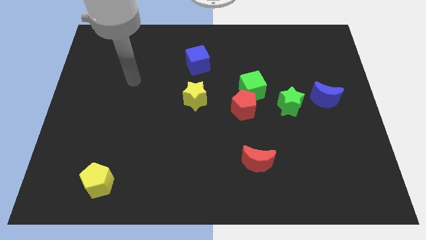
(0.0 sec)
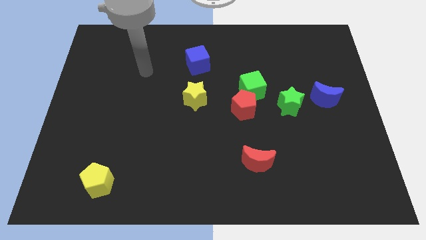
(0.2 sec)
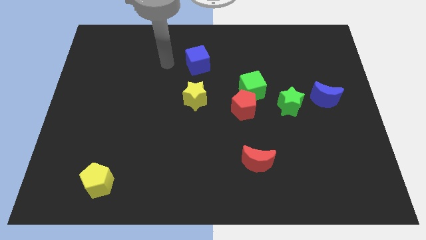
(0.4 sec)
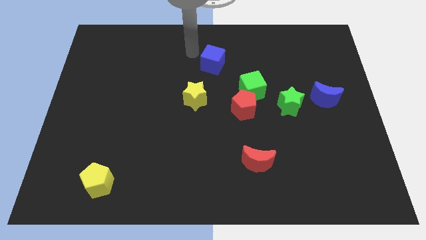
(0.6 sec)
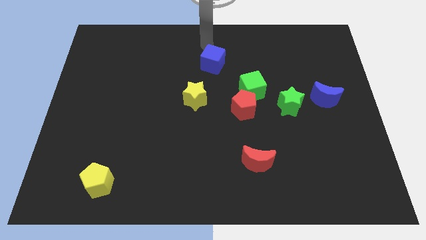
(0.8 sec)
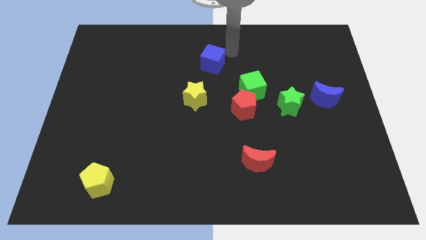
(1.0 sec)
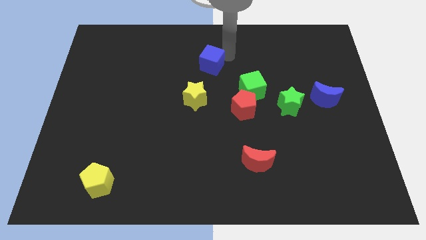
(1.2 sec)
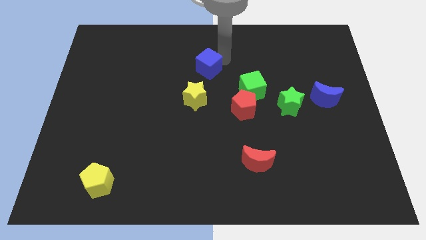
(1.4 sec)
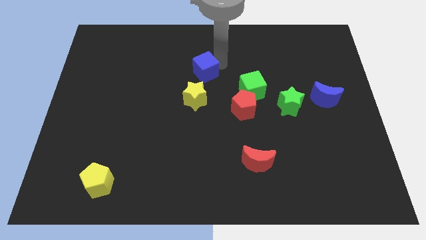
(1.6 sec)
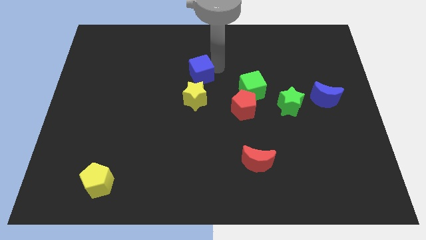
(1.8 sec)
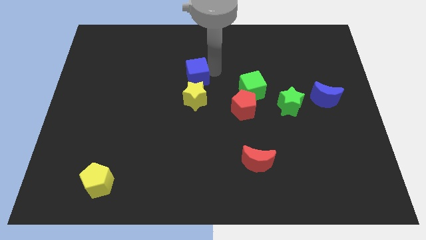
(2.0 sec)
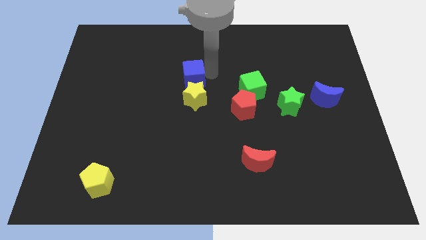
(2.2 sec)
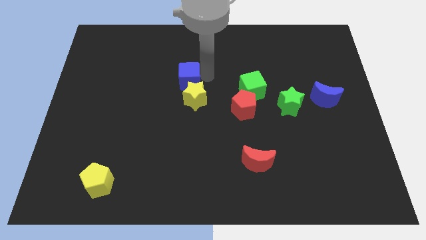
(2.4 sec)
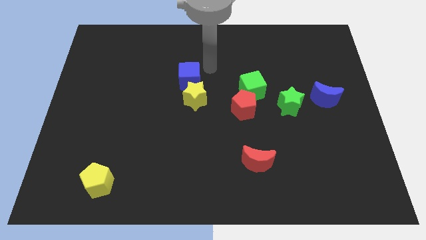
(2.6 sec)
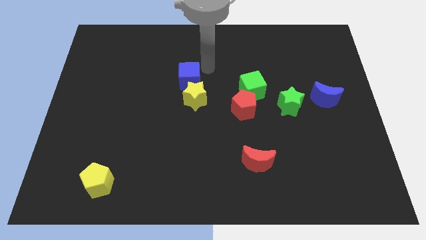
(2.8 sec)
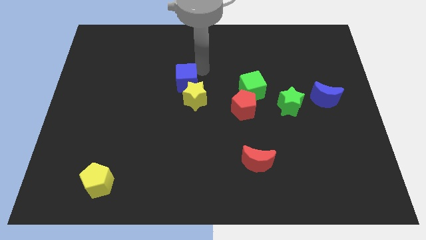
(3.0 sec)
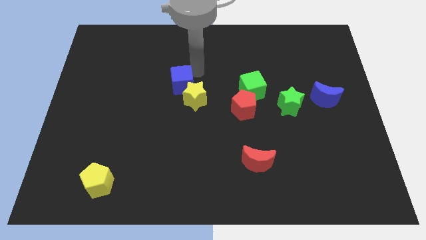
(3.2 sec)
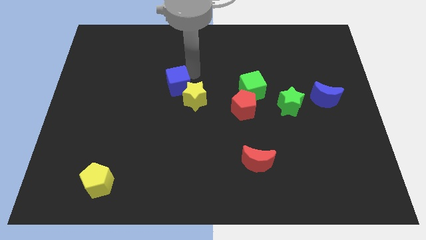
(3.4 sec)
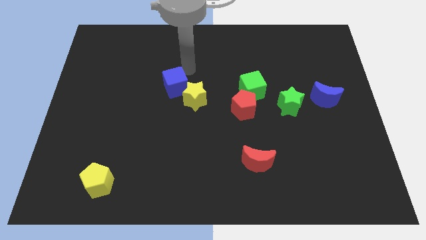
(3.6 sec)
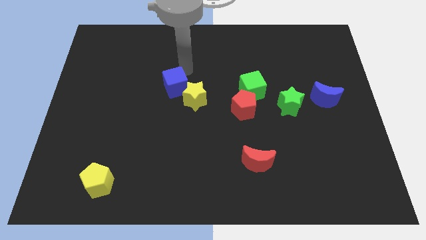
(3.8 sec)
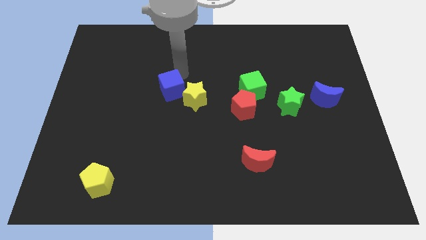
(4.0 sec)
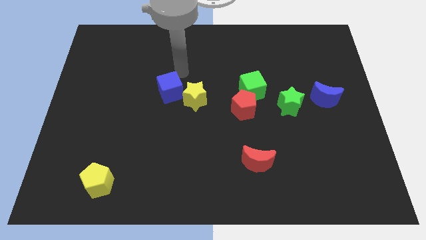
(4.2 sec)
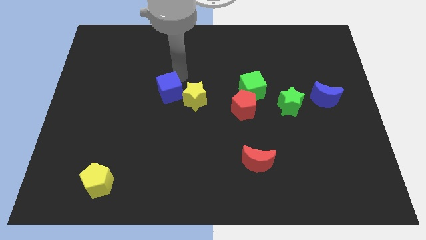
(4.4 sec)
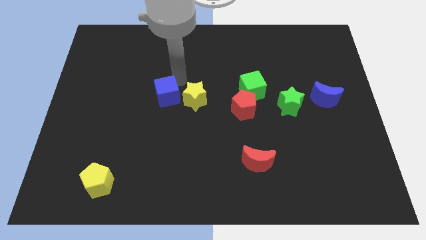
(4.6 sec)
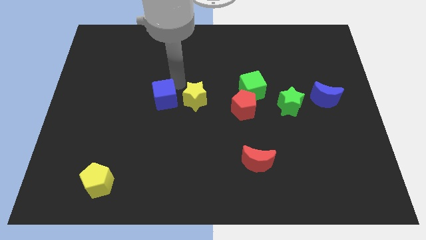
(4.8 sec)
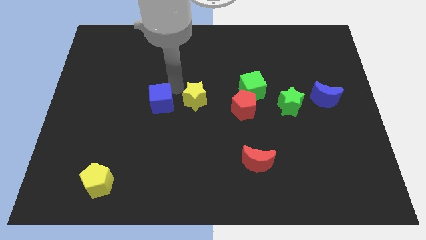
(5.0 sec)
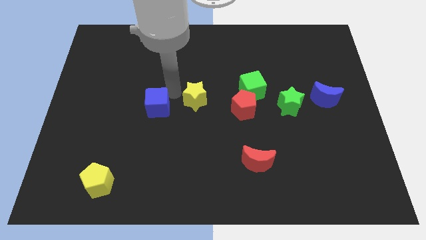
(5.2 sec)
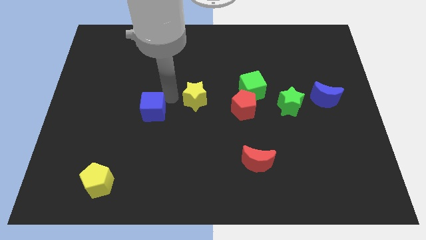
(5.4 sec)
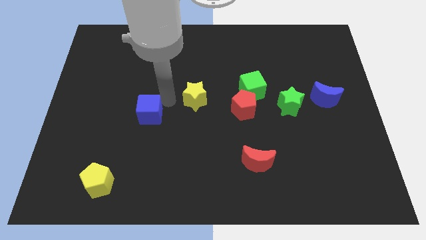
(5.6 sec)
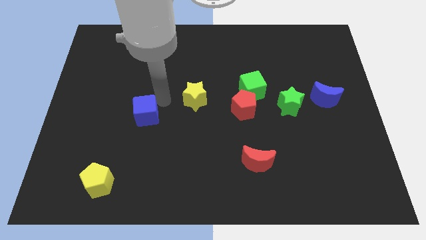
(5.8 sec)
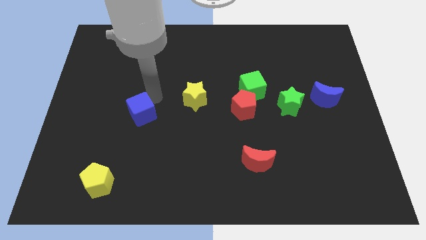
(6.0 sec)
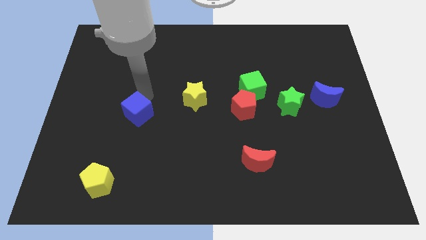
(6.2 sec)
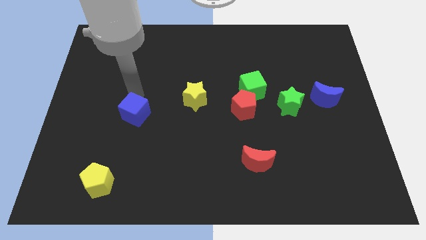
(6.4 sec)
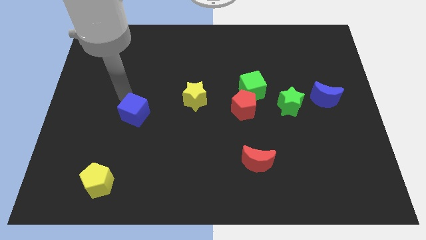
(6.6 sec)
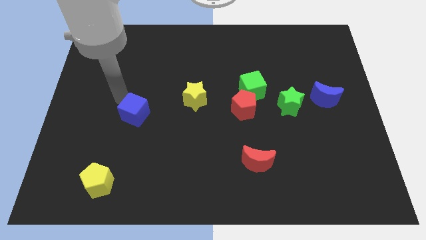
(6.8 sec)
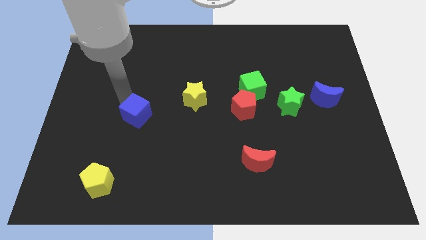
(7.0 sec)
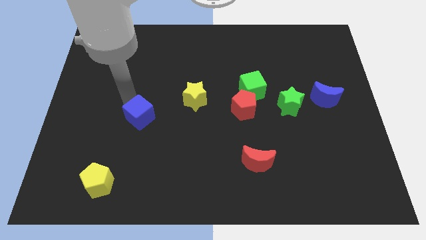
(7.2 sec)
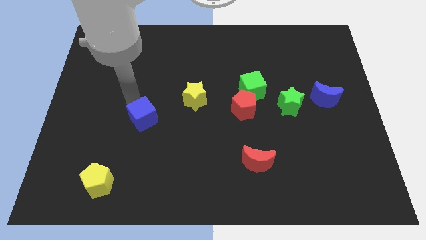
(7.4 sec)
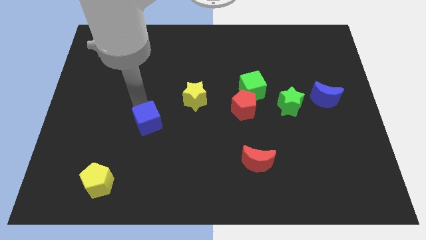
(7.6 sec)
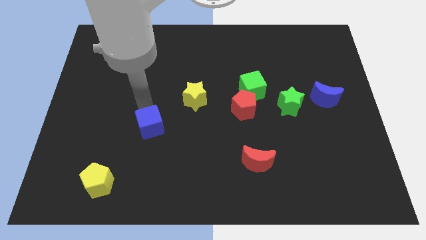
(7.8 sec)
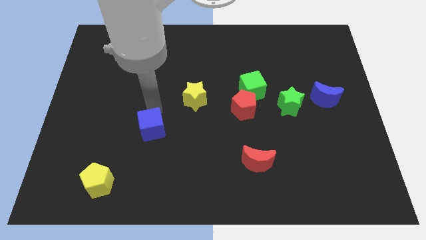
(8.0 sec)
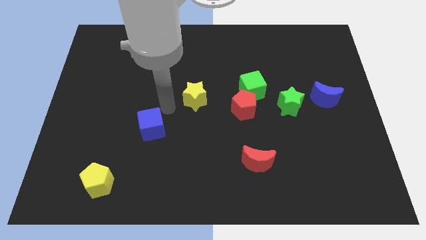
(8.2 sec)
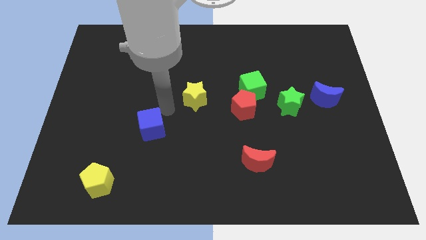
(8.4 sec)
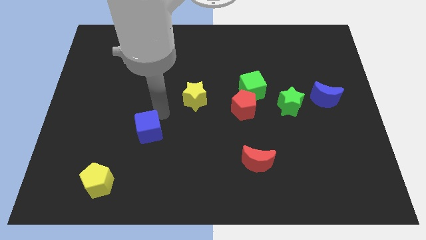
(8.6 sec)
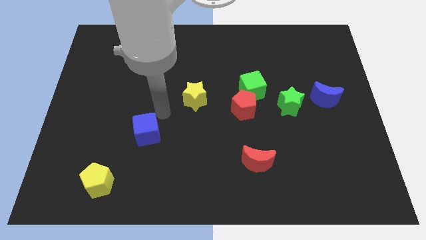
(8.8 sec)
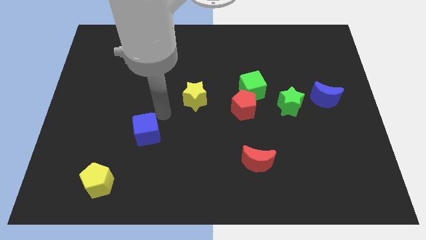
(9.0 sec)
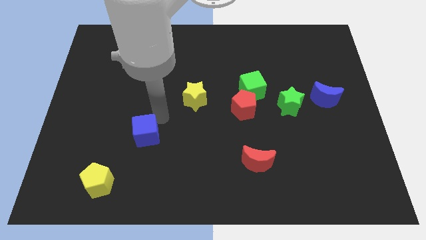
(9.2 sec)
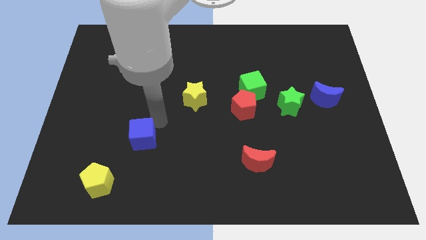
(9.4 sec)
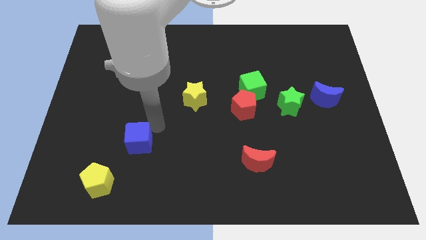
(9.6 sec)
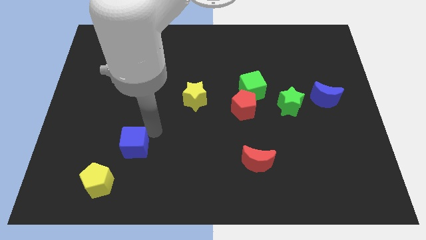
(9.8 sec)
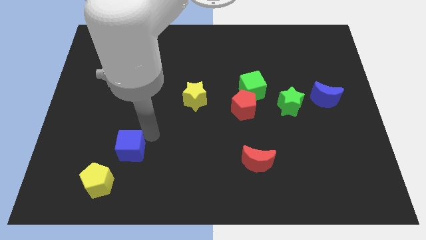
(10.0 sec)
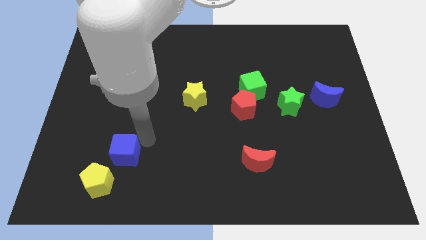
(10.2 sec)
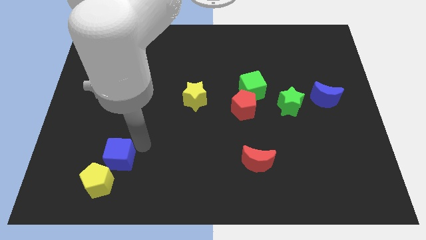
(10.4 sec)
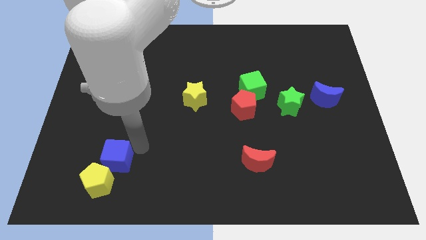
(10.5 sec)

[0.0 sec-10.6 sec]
slide the blue cube next to the yellow pentagon

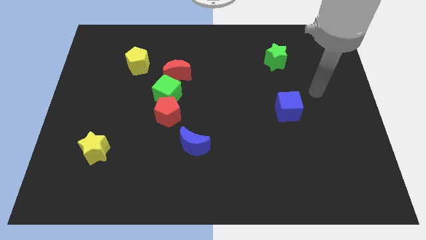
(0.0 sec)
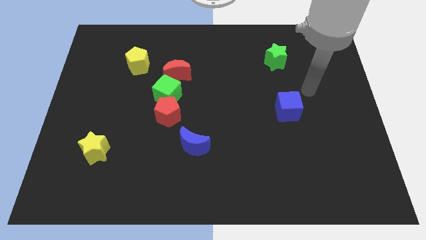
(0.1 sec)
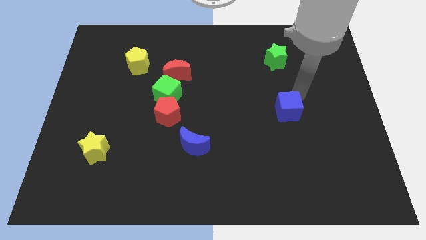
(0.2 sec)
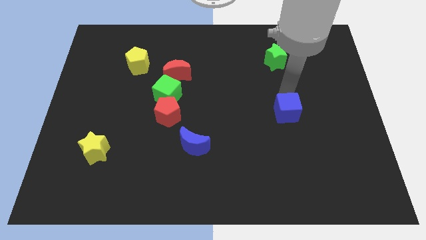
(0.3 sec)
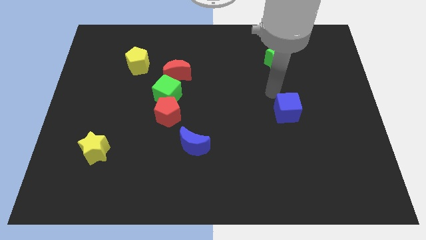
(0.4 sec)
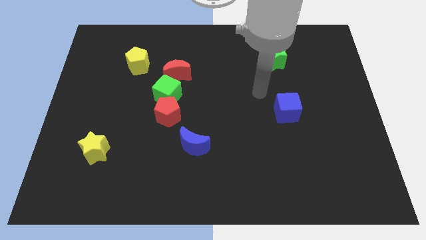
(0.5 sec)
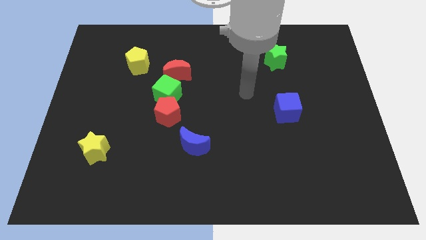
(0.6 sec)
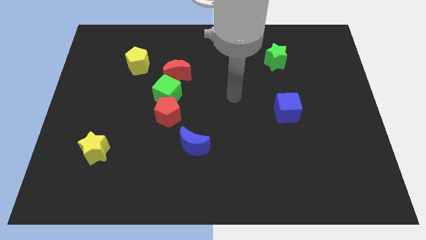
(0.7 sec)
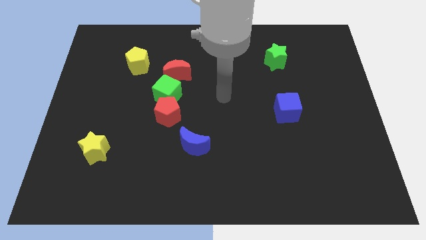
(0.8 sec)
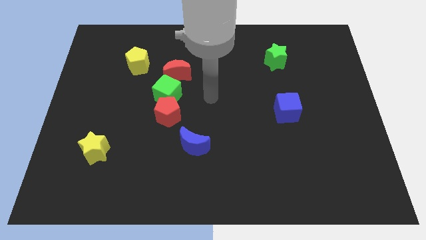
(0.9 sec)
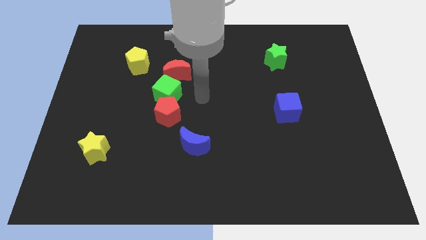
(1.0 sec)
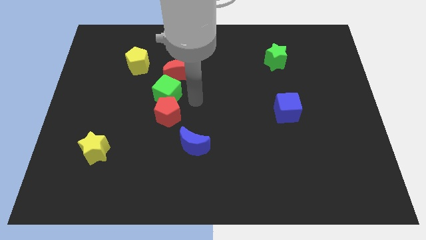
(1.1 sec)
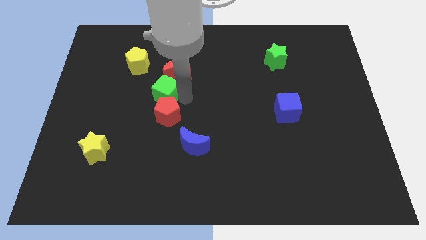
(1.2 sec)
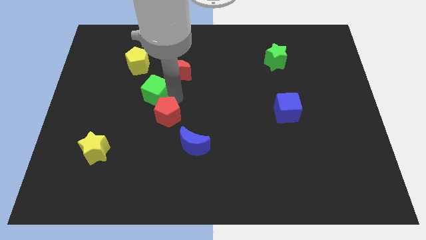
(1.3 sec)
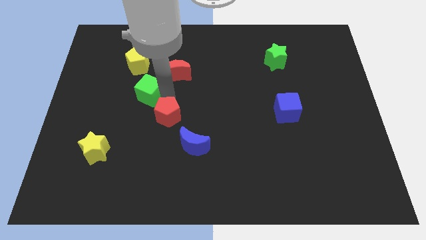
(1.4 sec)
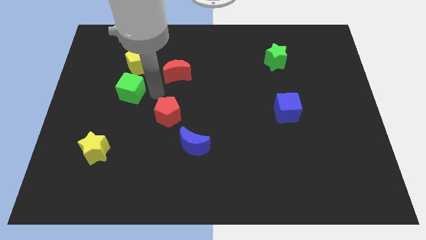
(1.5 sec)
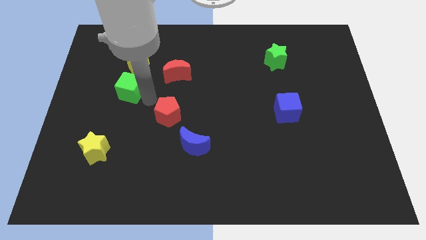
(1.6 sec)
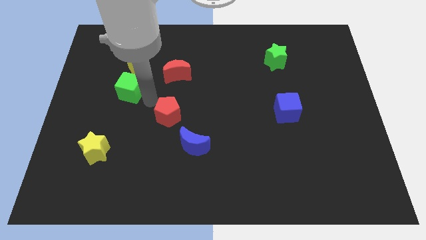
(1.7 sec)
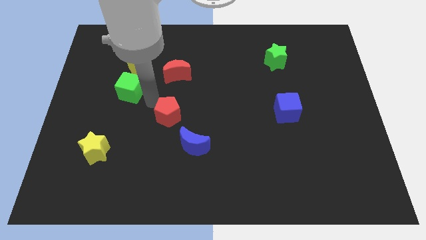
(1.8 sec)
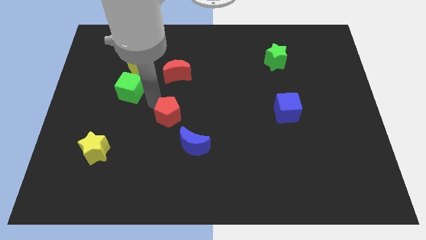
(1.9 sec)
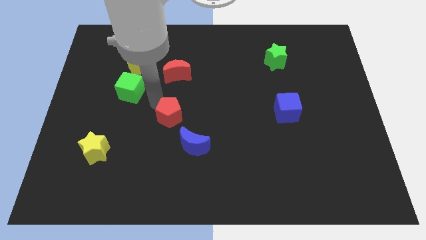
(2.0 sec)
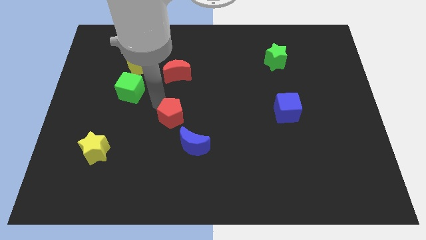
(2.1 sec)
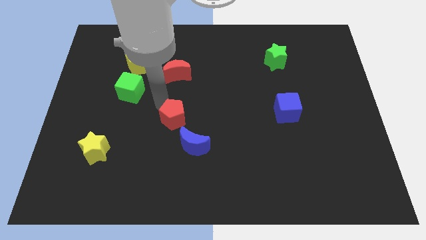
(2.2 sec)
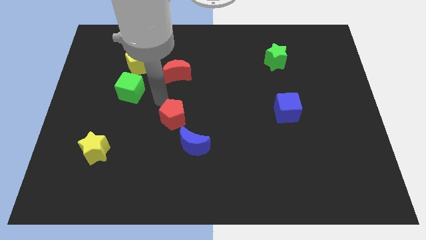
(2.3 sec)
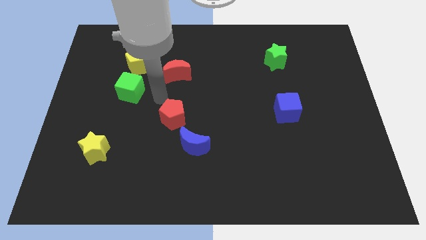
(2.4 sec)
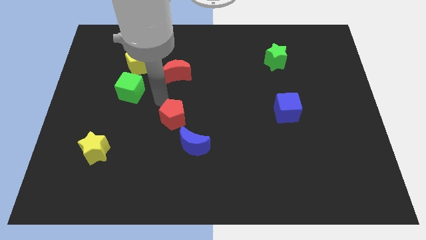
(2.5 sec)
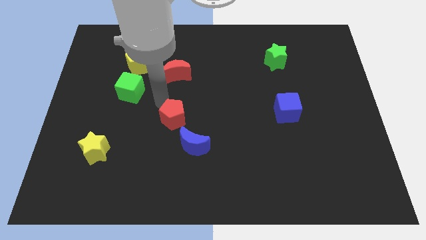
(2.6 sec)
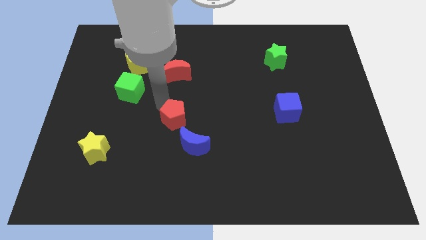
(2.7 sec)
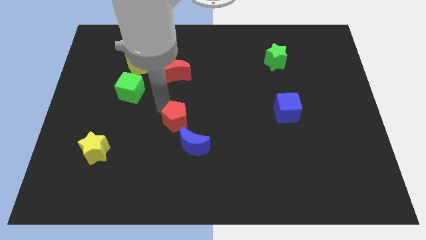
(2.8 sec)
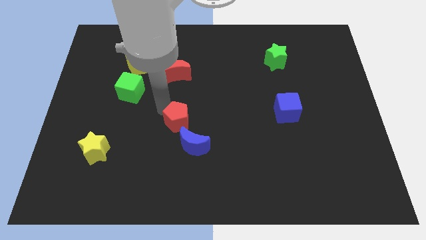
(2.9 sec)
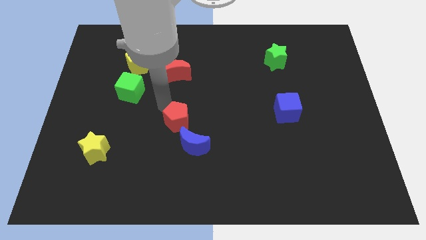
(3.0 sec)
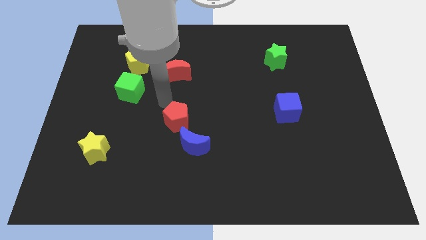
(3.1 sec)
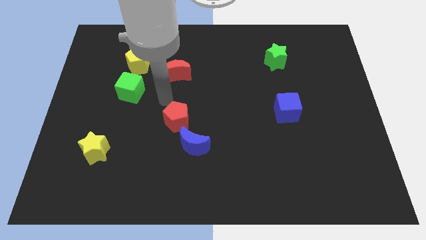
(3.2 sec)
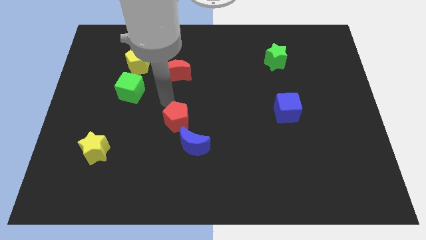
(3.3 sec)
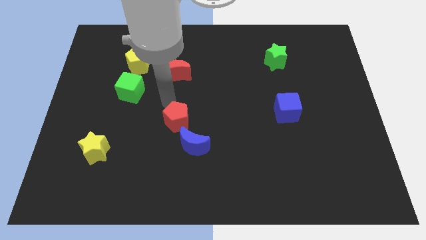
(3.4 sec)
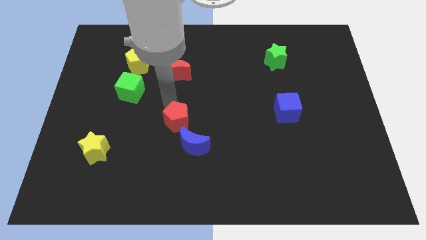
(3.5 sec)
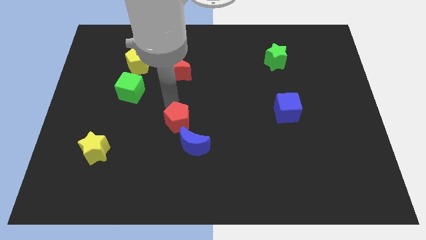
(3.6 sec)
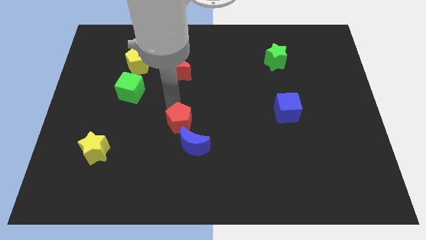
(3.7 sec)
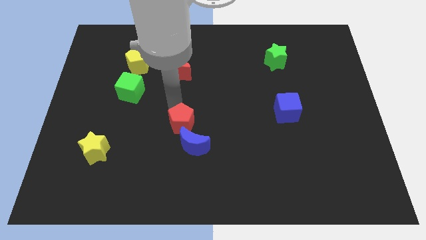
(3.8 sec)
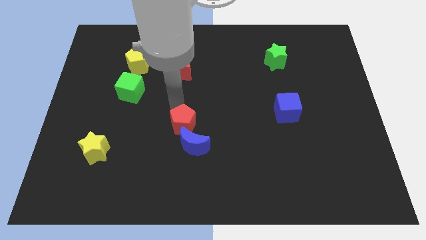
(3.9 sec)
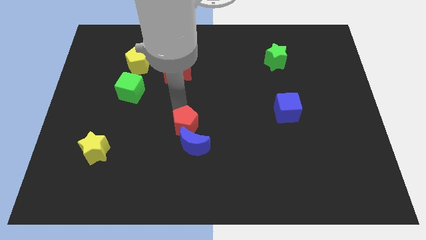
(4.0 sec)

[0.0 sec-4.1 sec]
push the red pentagon to the blue moon
